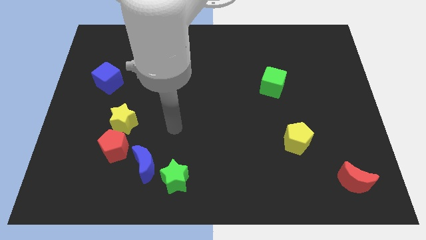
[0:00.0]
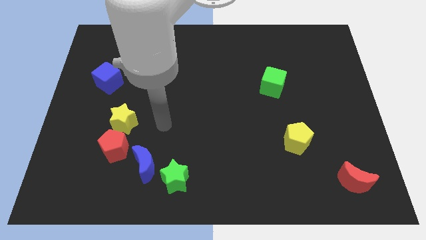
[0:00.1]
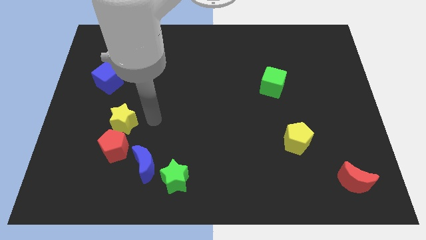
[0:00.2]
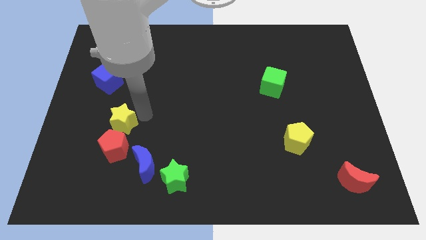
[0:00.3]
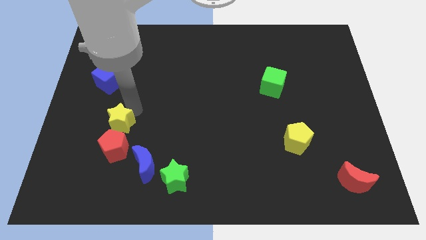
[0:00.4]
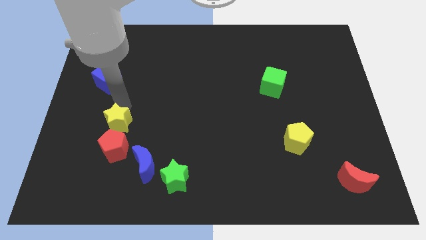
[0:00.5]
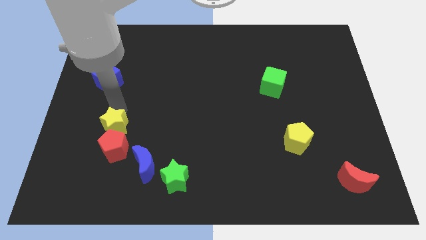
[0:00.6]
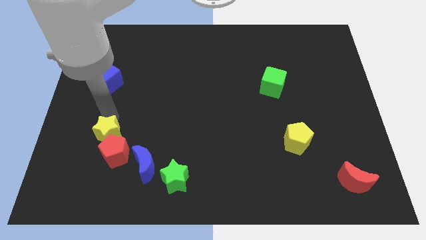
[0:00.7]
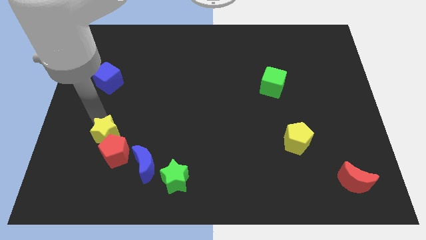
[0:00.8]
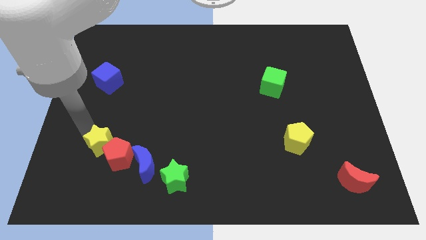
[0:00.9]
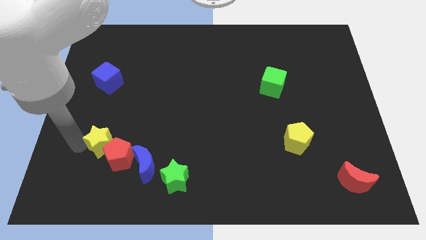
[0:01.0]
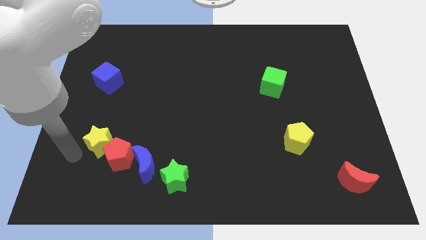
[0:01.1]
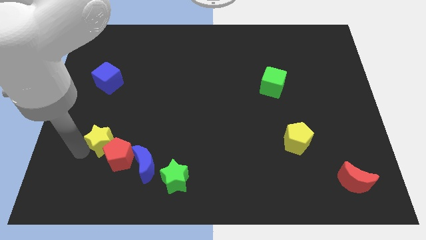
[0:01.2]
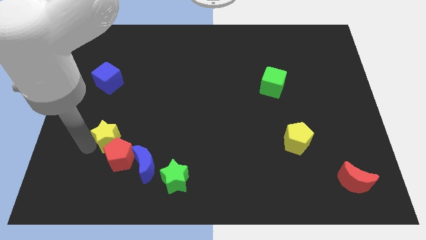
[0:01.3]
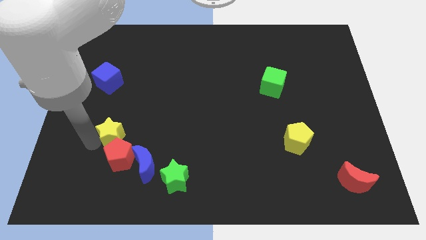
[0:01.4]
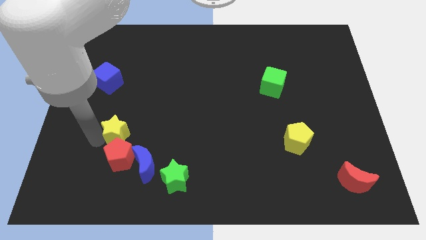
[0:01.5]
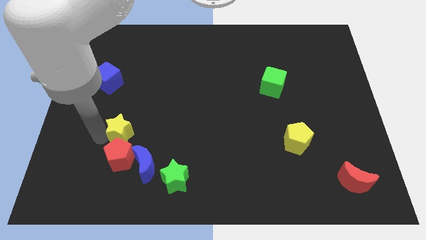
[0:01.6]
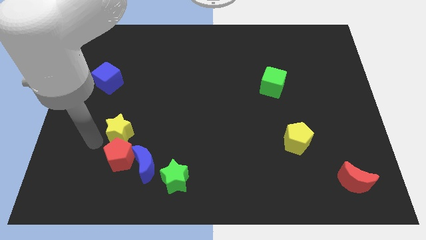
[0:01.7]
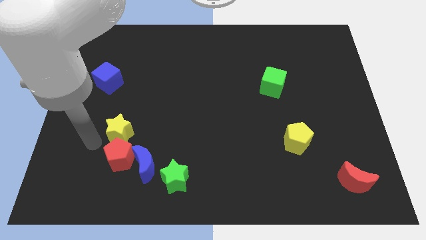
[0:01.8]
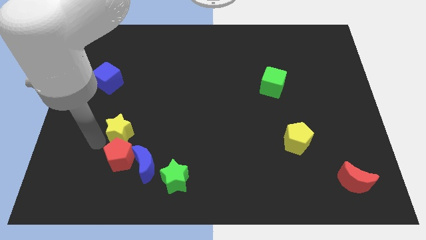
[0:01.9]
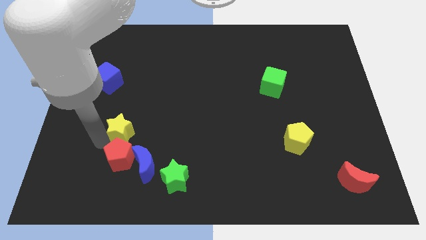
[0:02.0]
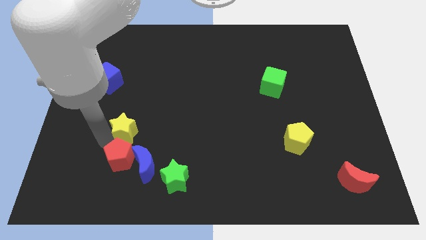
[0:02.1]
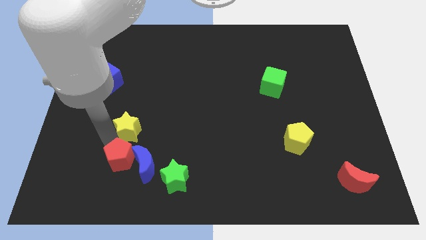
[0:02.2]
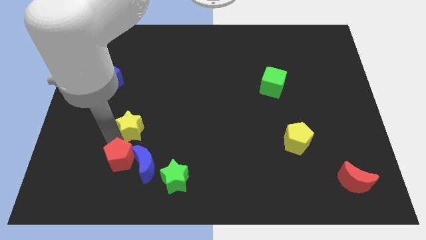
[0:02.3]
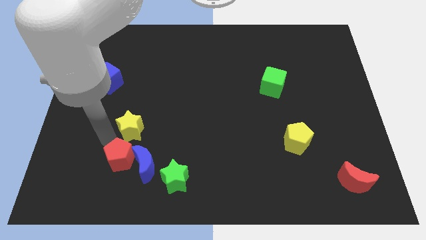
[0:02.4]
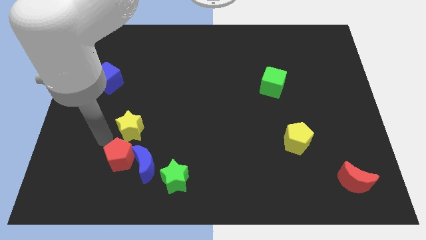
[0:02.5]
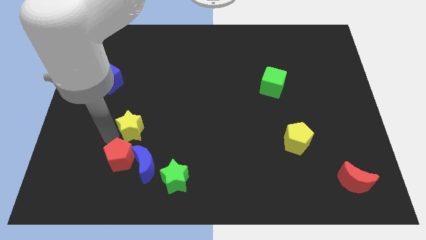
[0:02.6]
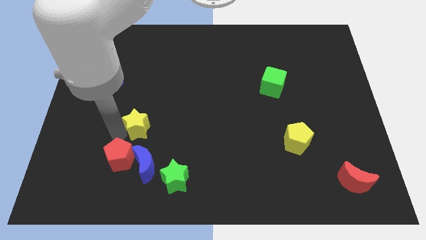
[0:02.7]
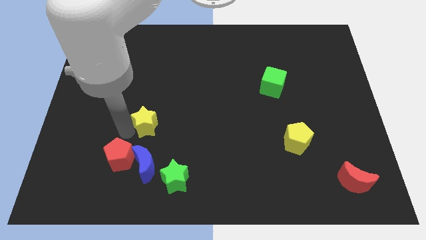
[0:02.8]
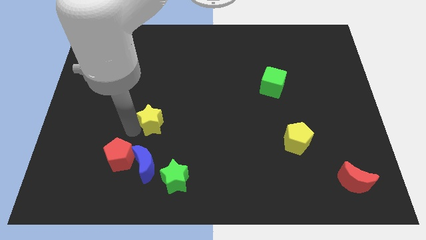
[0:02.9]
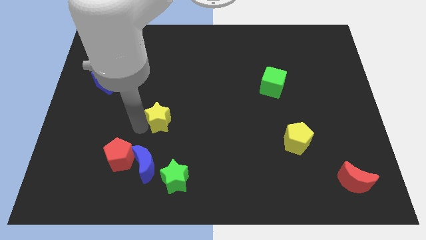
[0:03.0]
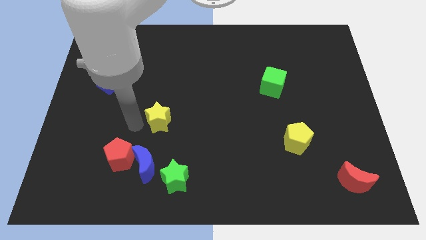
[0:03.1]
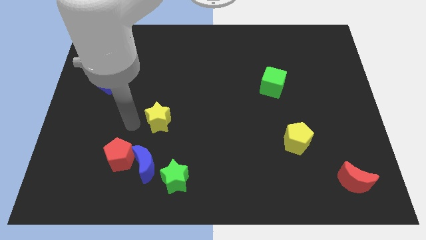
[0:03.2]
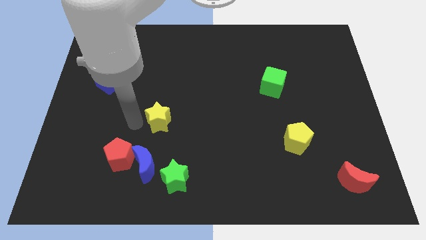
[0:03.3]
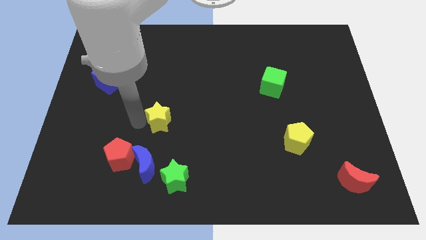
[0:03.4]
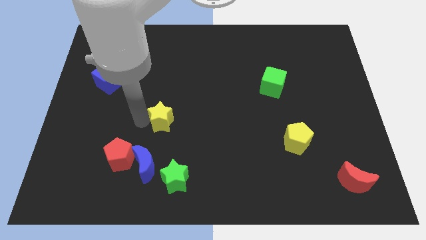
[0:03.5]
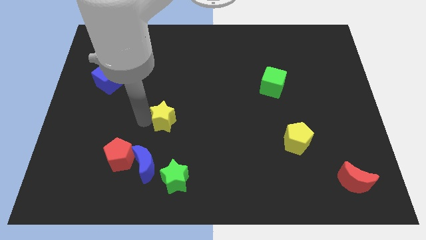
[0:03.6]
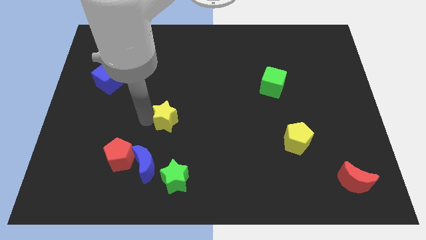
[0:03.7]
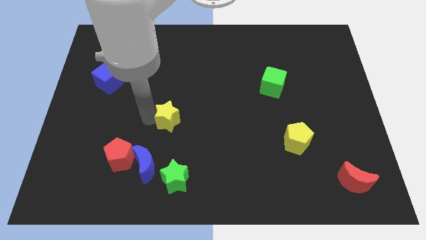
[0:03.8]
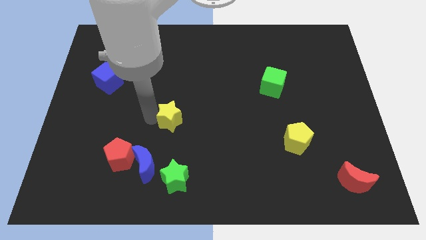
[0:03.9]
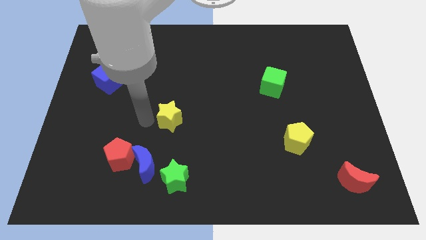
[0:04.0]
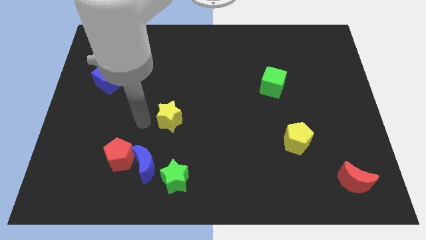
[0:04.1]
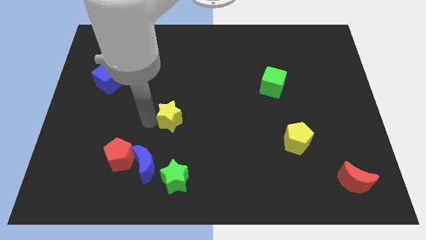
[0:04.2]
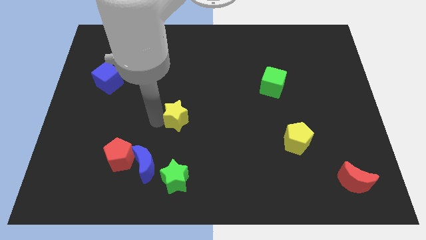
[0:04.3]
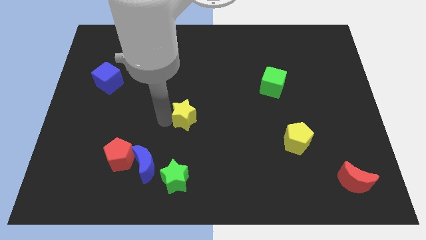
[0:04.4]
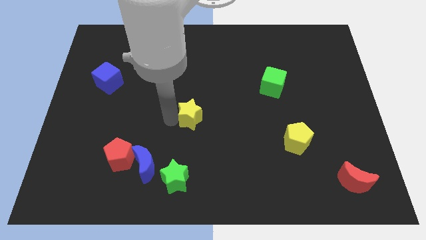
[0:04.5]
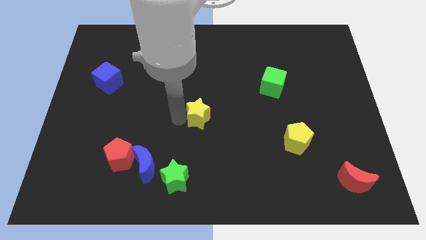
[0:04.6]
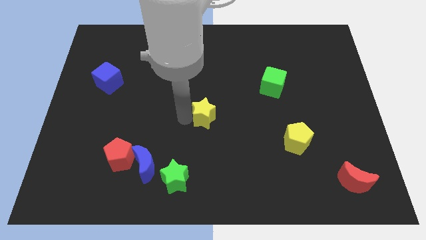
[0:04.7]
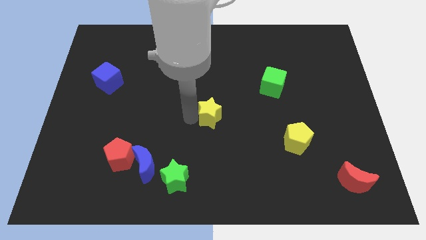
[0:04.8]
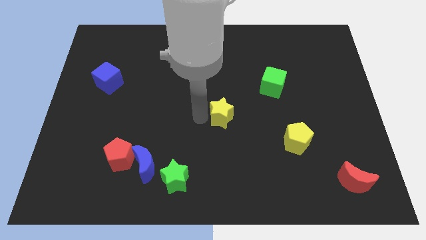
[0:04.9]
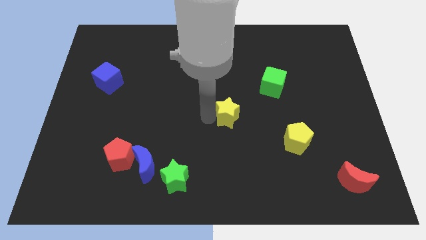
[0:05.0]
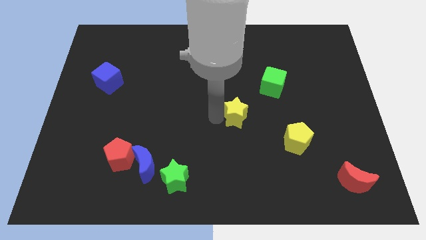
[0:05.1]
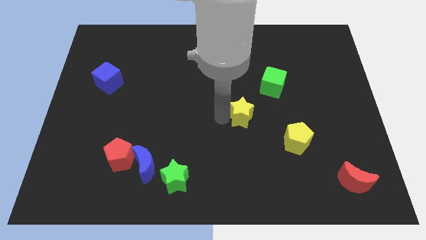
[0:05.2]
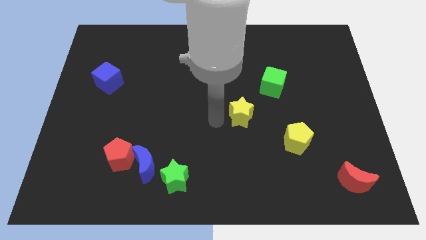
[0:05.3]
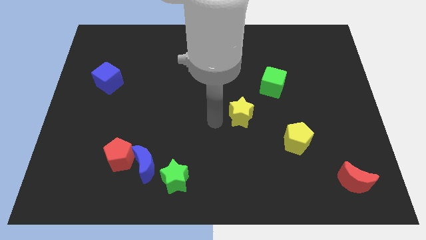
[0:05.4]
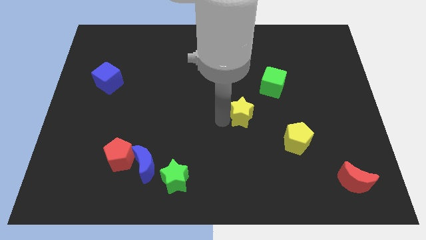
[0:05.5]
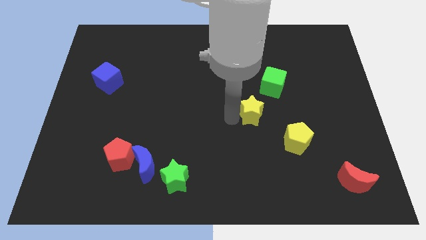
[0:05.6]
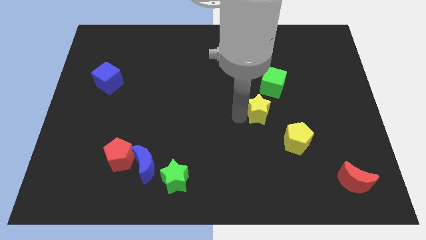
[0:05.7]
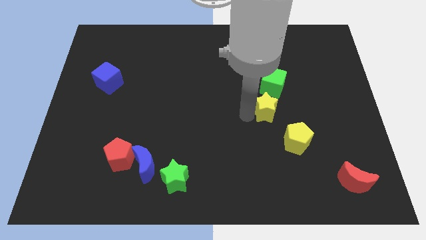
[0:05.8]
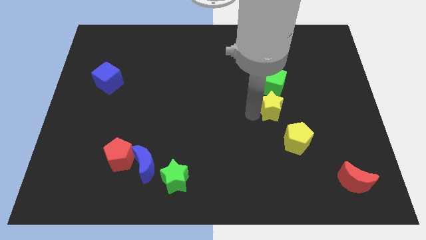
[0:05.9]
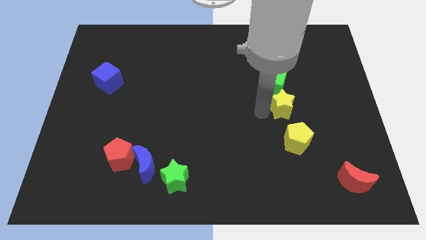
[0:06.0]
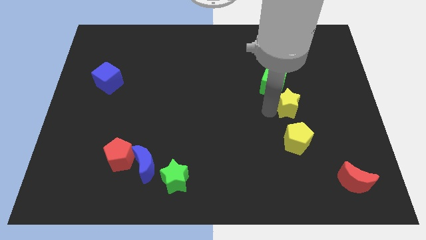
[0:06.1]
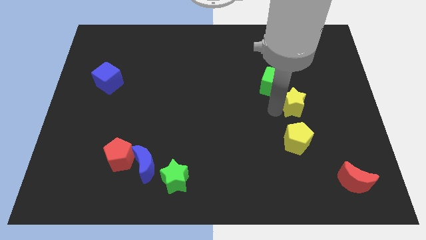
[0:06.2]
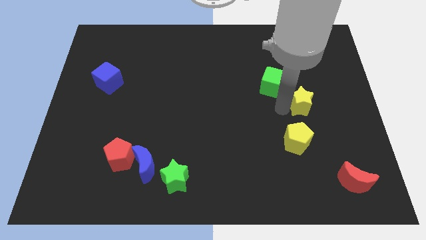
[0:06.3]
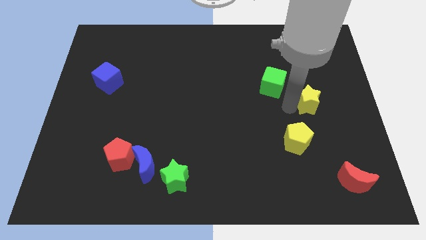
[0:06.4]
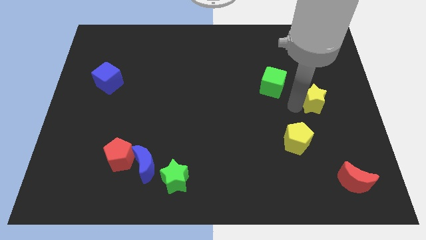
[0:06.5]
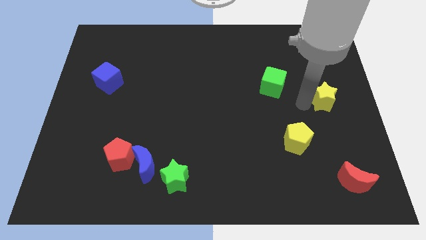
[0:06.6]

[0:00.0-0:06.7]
push the yellow star to the right side
